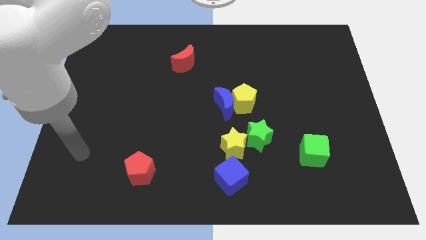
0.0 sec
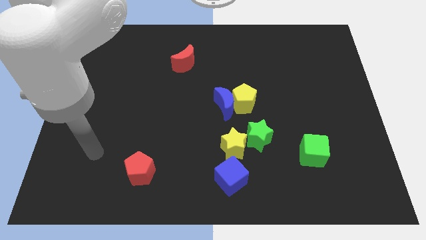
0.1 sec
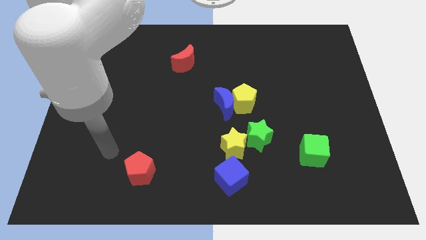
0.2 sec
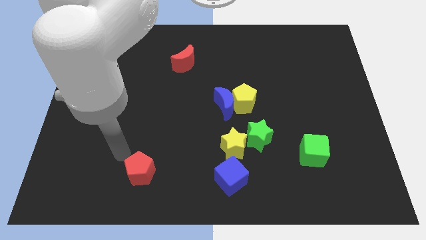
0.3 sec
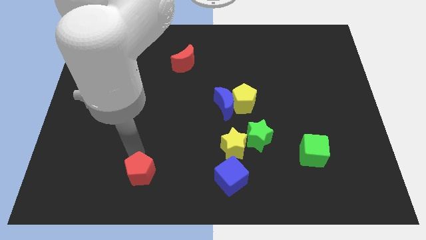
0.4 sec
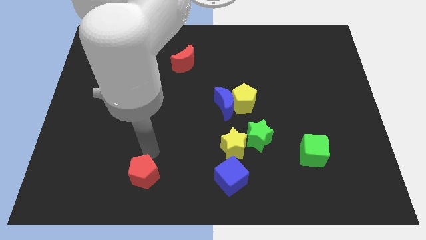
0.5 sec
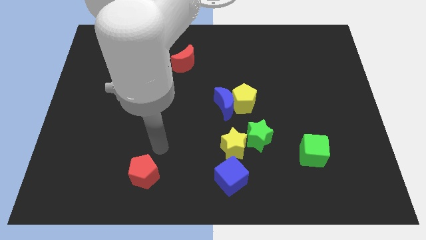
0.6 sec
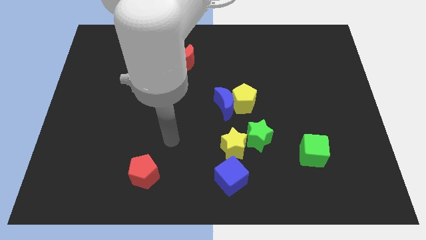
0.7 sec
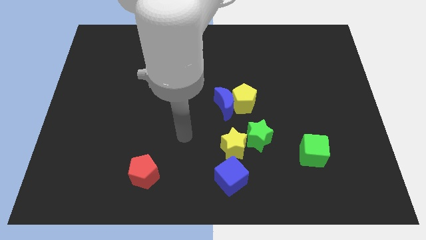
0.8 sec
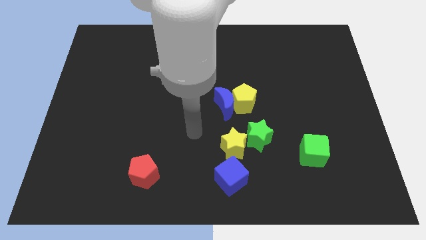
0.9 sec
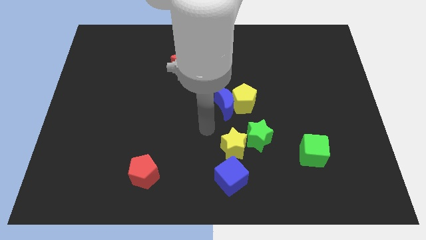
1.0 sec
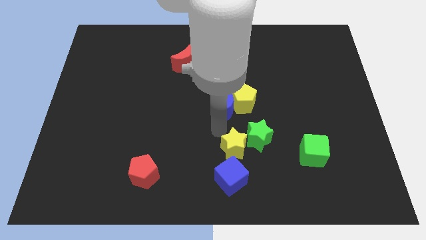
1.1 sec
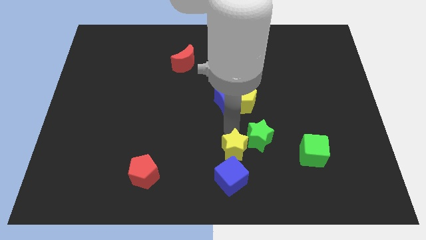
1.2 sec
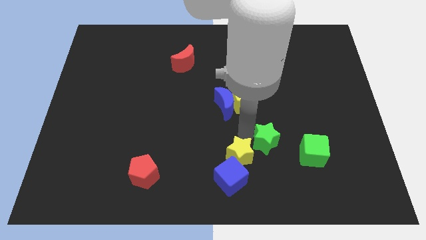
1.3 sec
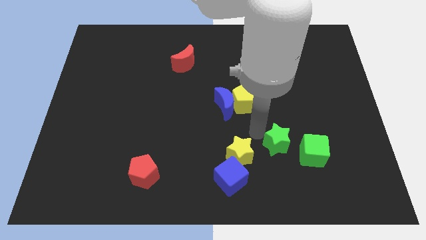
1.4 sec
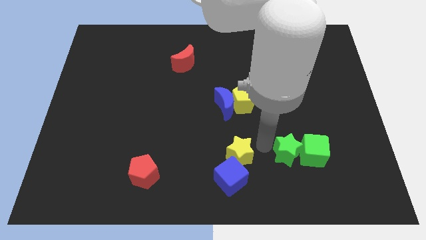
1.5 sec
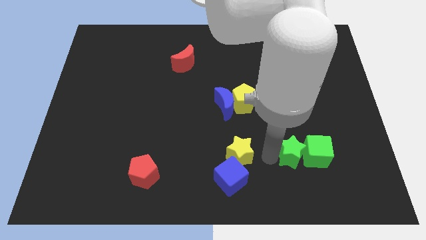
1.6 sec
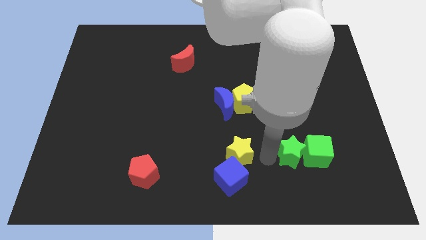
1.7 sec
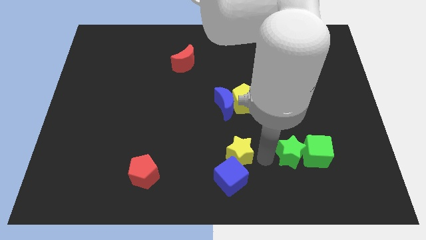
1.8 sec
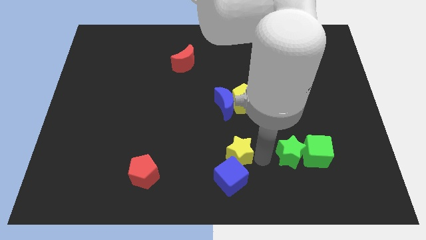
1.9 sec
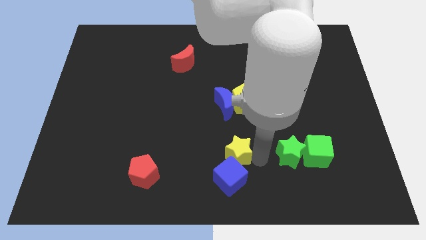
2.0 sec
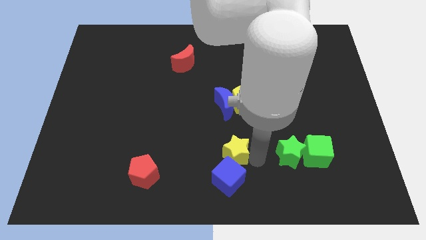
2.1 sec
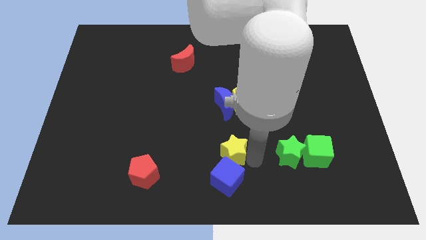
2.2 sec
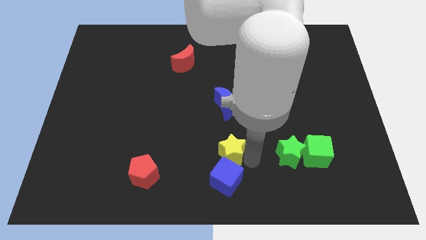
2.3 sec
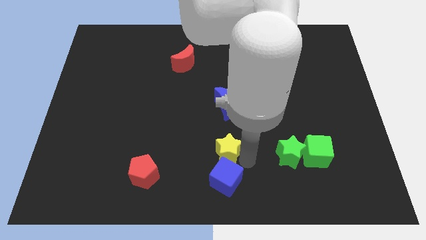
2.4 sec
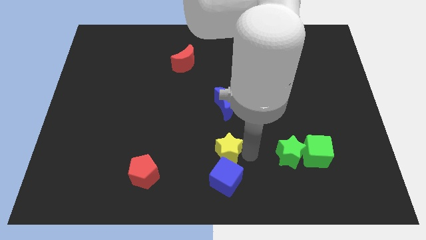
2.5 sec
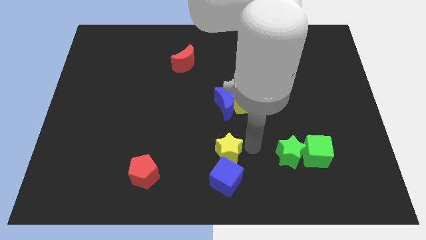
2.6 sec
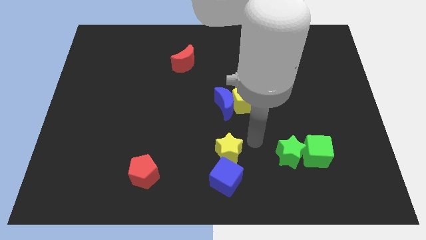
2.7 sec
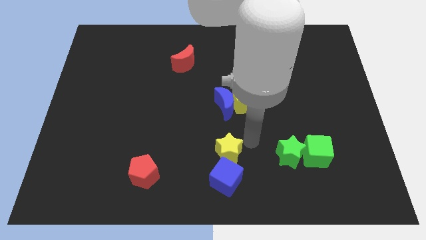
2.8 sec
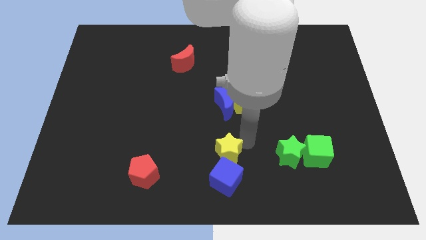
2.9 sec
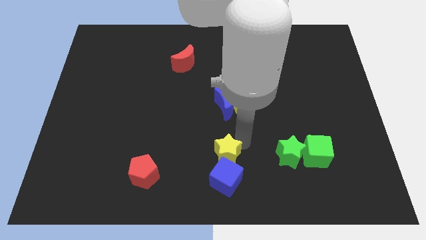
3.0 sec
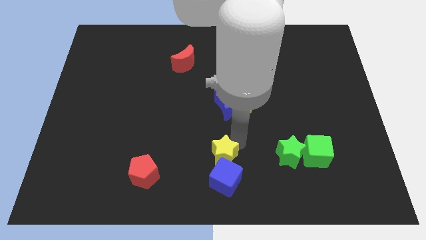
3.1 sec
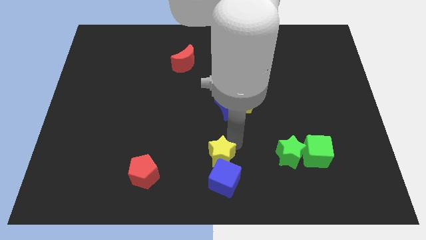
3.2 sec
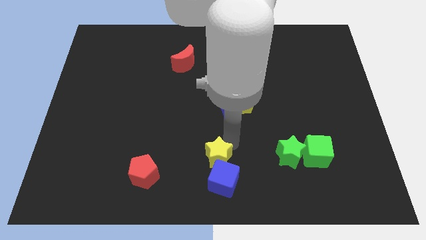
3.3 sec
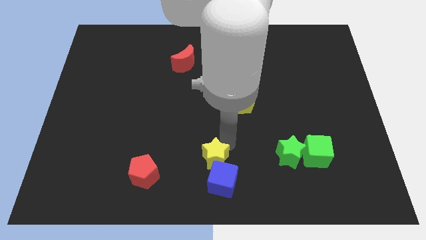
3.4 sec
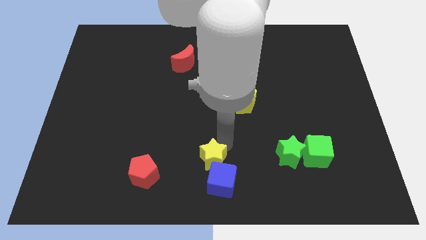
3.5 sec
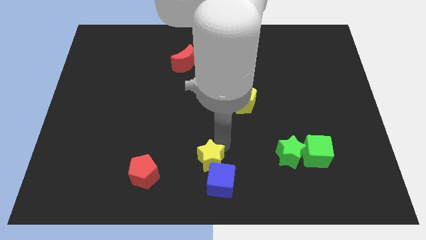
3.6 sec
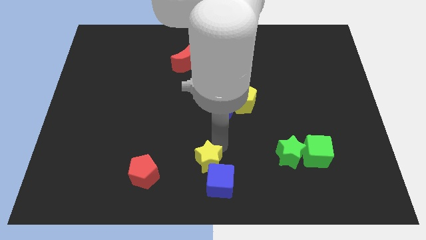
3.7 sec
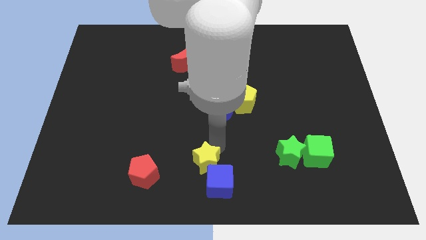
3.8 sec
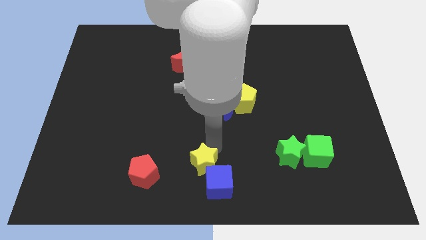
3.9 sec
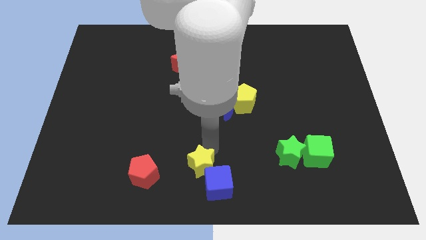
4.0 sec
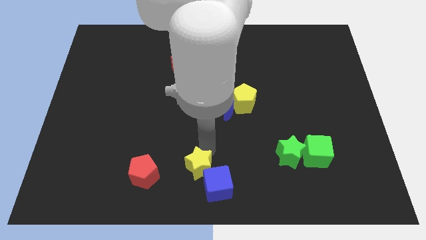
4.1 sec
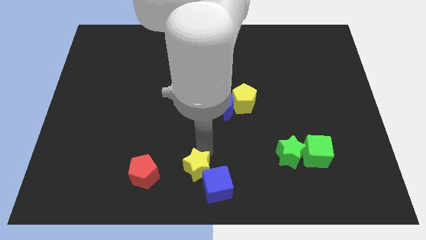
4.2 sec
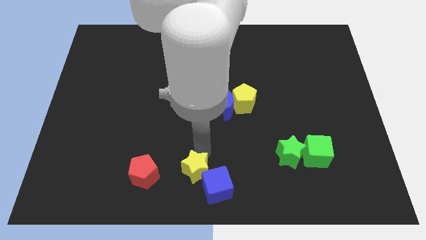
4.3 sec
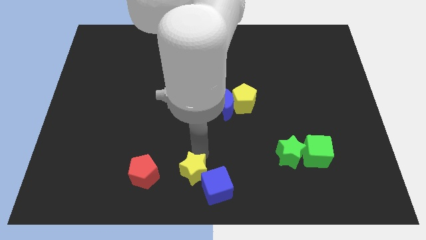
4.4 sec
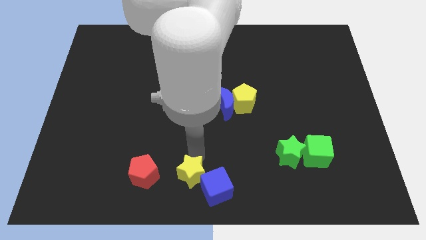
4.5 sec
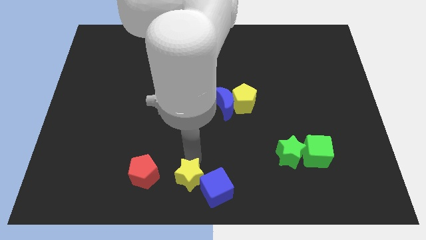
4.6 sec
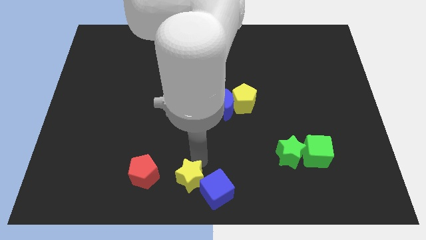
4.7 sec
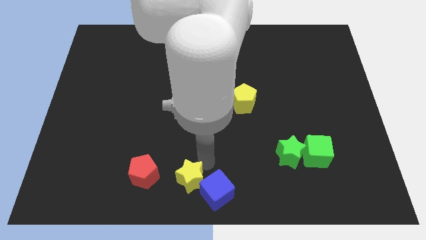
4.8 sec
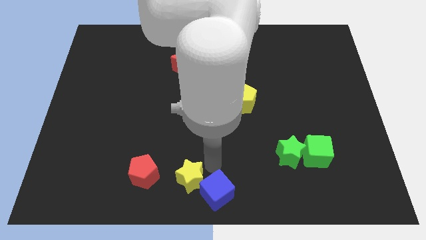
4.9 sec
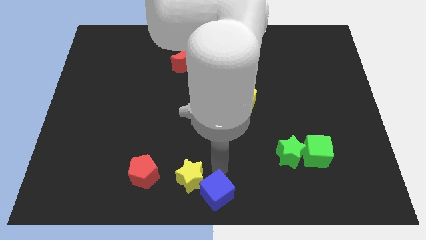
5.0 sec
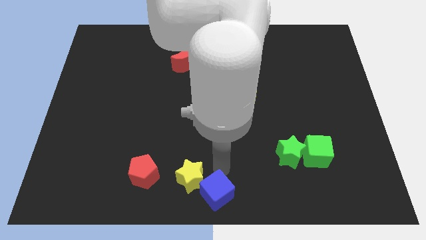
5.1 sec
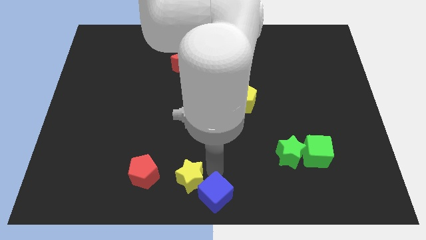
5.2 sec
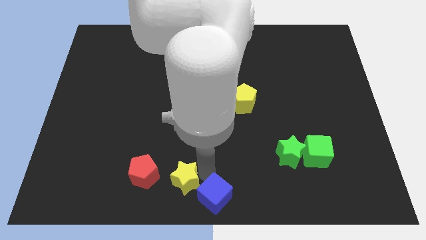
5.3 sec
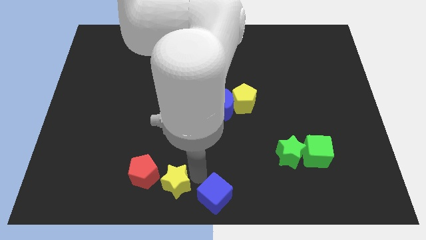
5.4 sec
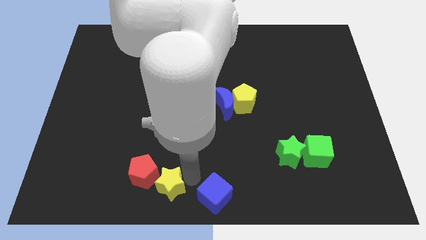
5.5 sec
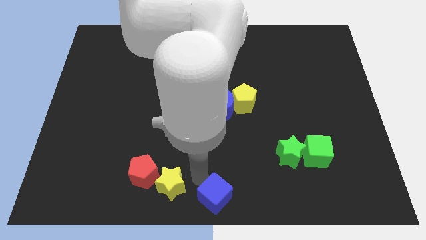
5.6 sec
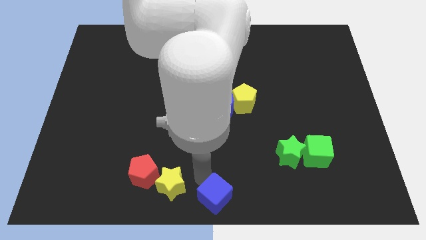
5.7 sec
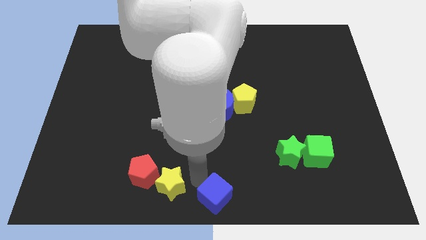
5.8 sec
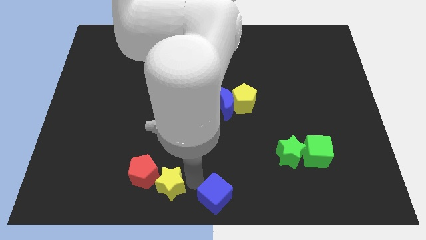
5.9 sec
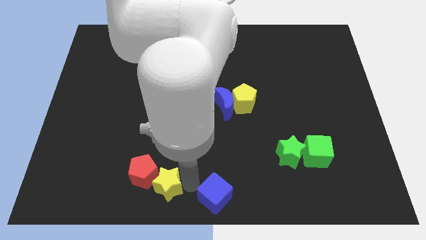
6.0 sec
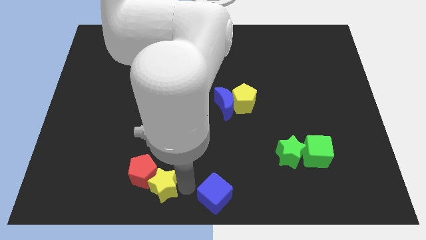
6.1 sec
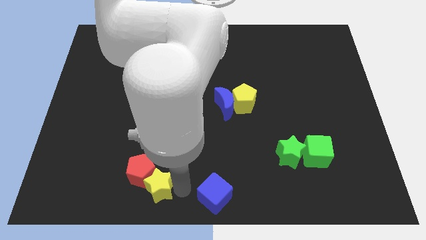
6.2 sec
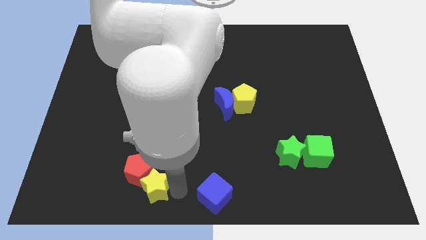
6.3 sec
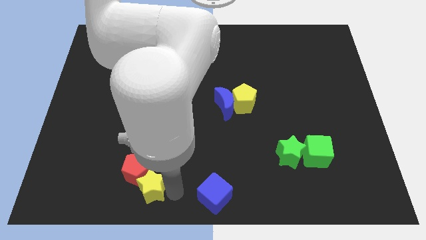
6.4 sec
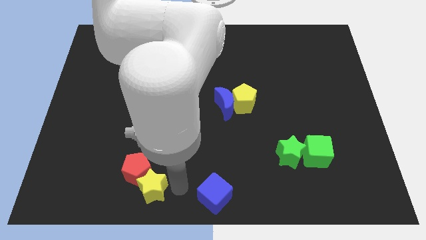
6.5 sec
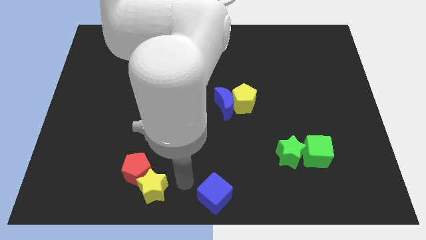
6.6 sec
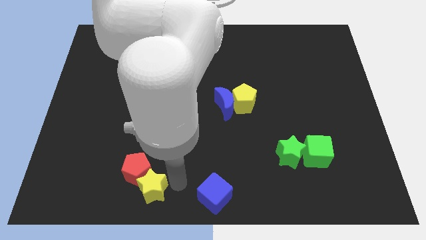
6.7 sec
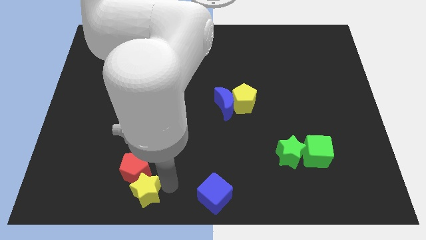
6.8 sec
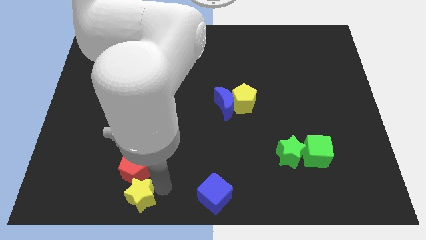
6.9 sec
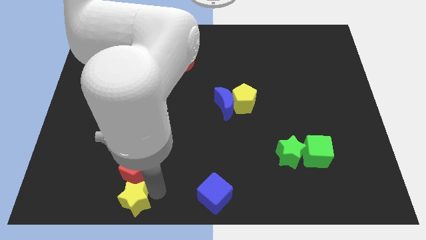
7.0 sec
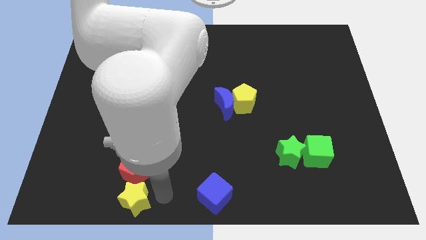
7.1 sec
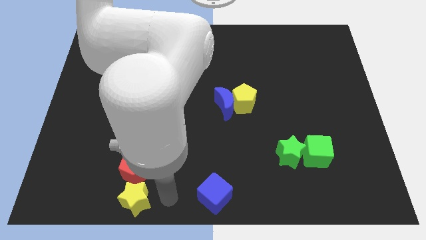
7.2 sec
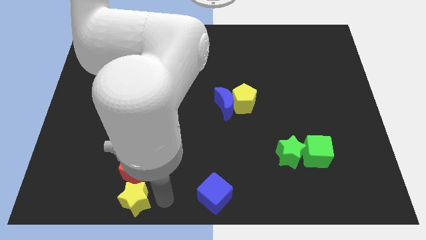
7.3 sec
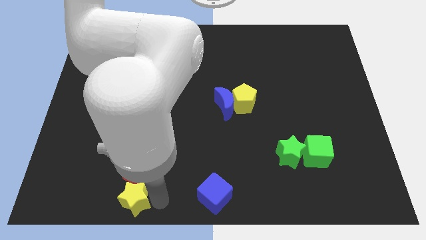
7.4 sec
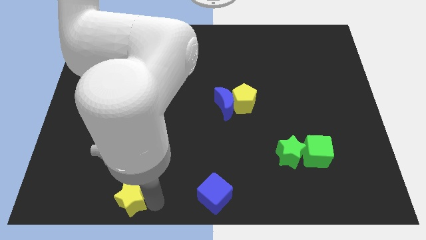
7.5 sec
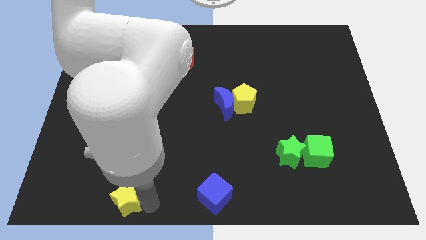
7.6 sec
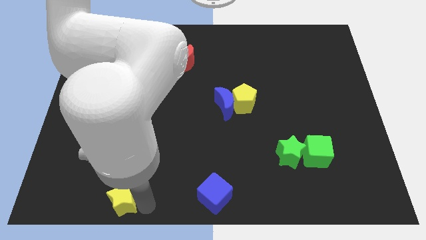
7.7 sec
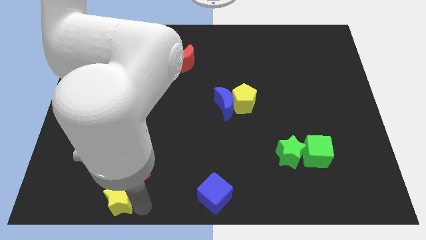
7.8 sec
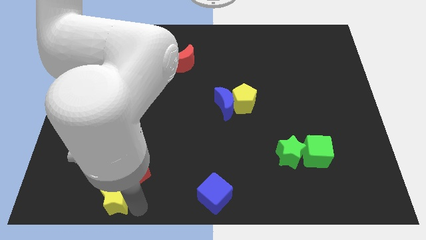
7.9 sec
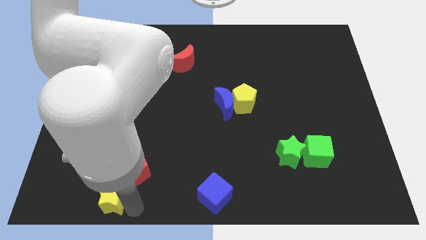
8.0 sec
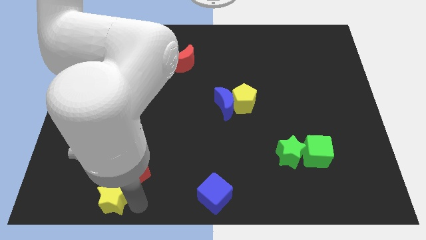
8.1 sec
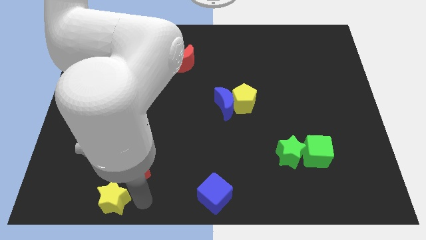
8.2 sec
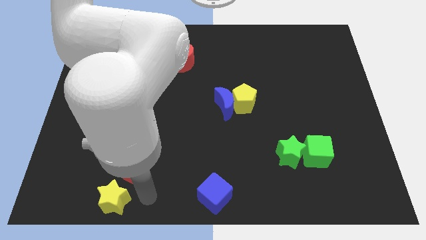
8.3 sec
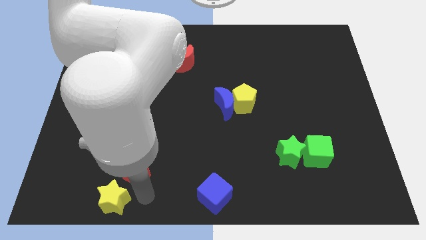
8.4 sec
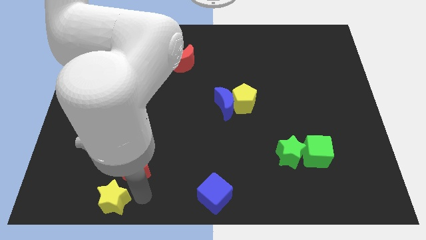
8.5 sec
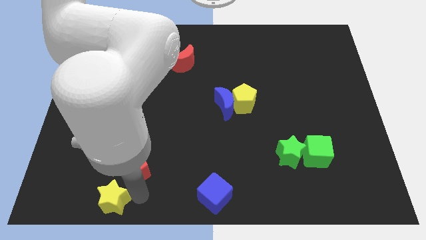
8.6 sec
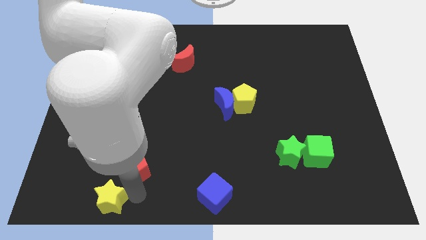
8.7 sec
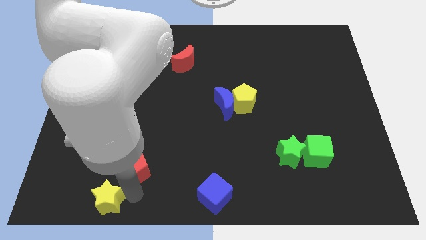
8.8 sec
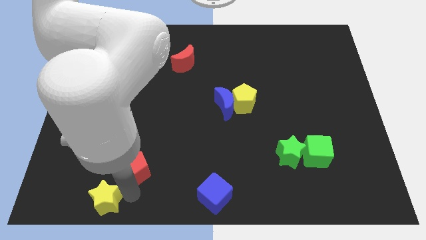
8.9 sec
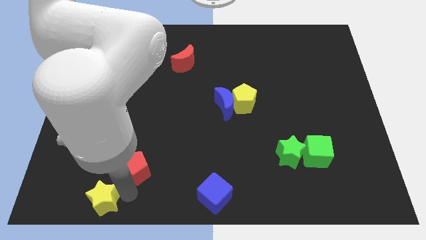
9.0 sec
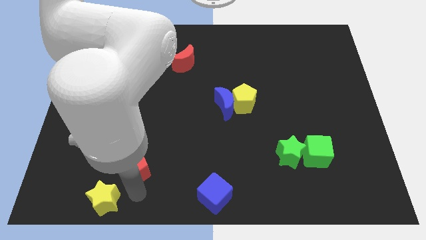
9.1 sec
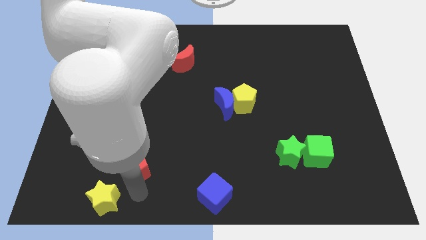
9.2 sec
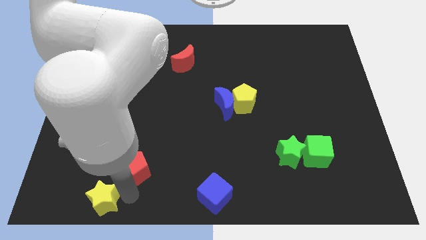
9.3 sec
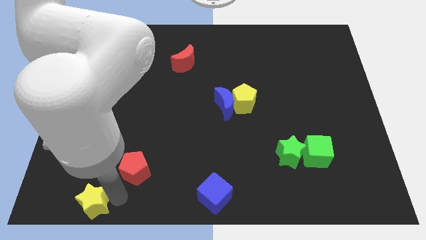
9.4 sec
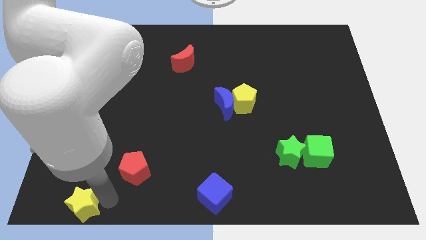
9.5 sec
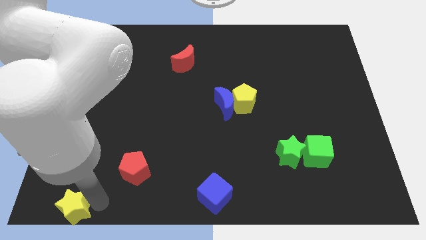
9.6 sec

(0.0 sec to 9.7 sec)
slide the yellow star to the lower left corner
